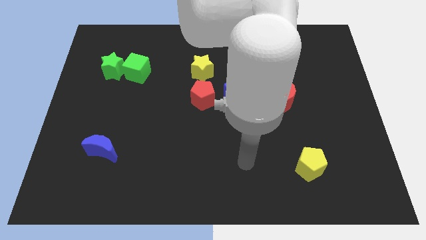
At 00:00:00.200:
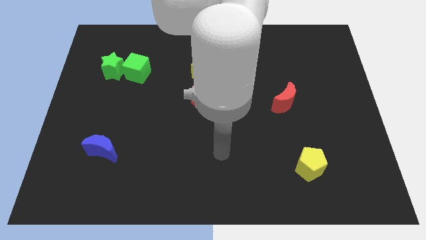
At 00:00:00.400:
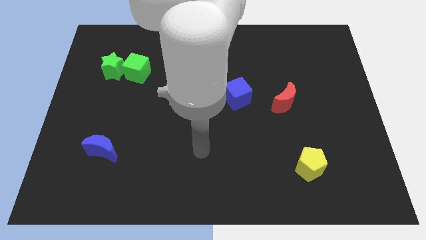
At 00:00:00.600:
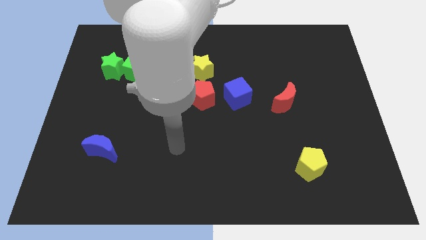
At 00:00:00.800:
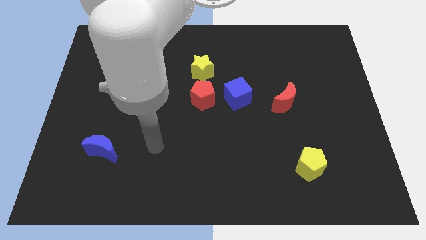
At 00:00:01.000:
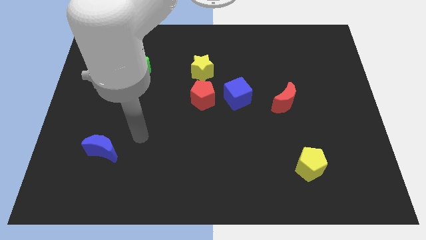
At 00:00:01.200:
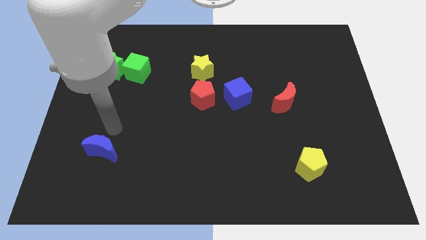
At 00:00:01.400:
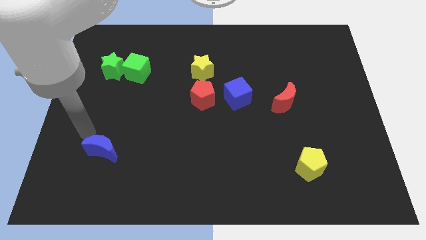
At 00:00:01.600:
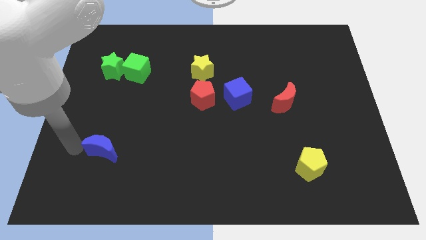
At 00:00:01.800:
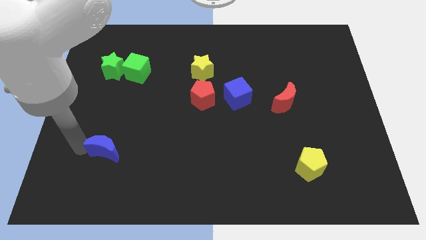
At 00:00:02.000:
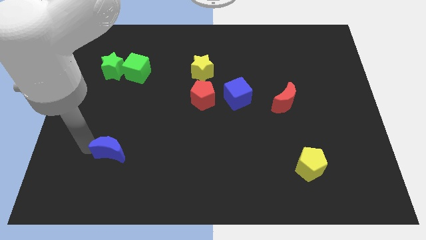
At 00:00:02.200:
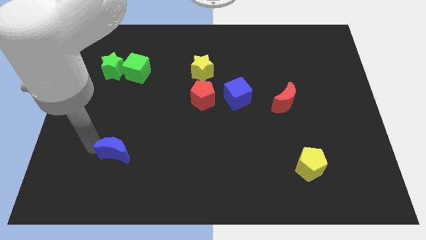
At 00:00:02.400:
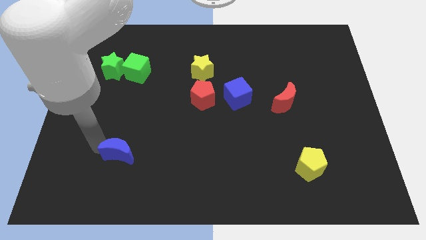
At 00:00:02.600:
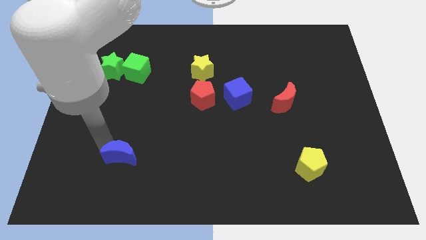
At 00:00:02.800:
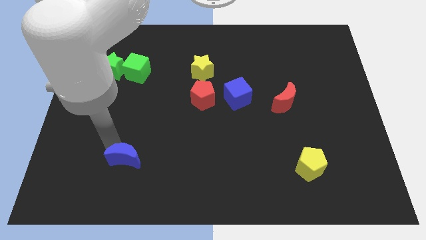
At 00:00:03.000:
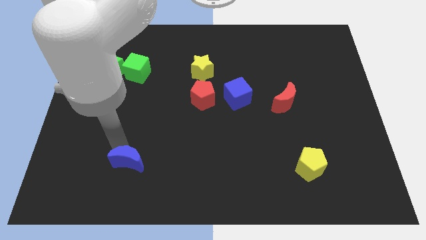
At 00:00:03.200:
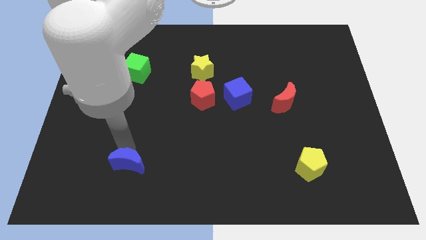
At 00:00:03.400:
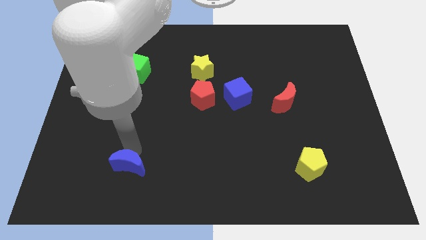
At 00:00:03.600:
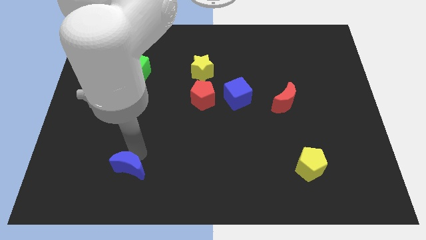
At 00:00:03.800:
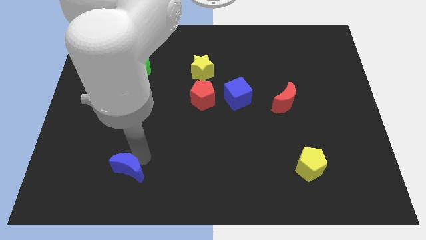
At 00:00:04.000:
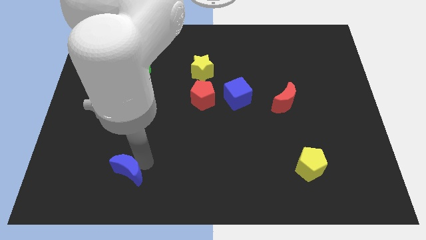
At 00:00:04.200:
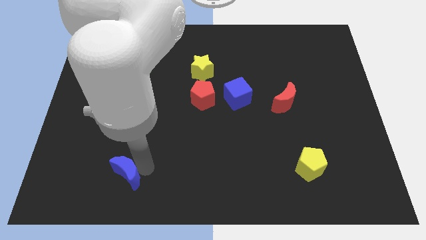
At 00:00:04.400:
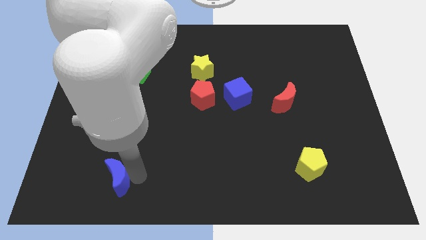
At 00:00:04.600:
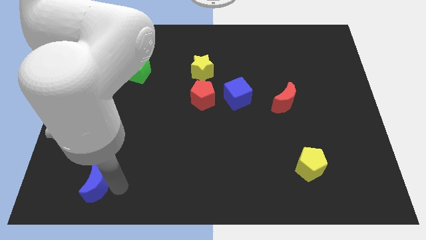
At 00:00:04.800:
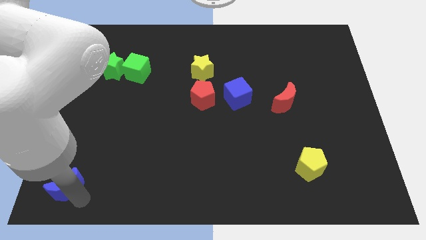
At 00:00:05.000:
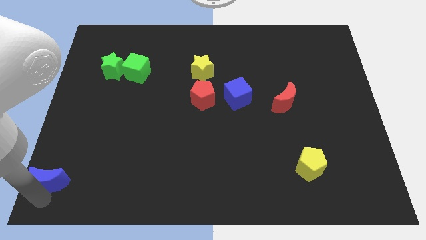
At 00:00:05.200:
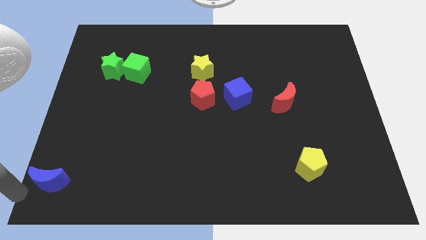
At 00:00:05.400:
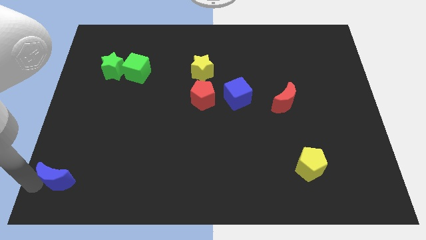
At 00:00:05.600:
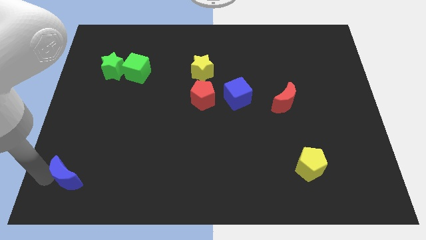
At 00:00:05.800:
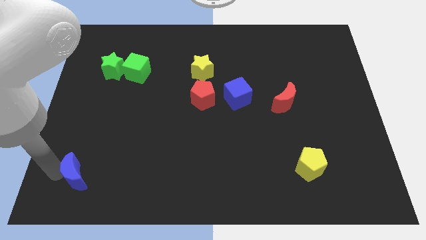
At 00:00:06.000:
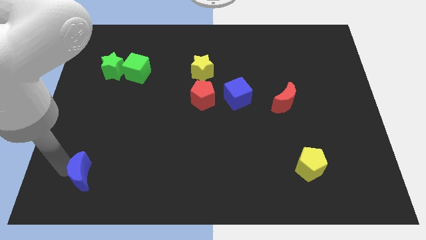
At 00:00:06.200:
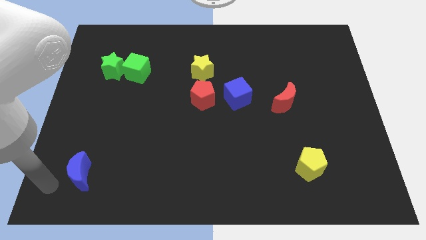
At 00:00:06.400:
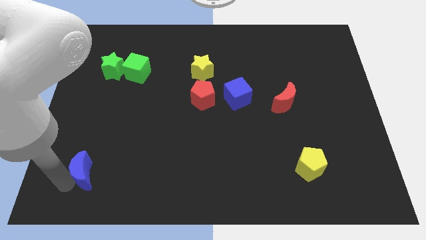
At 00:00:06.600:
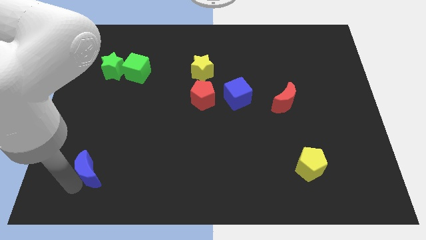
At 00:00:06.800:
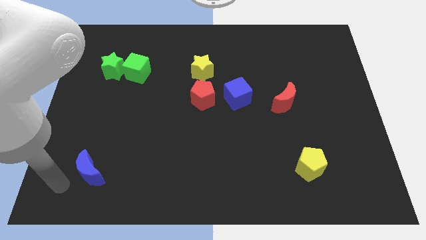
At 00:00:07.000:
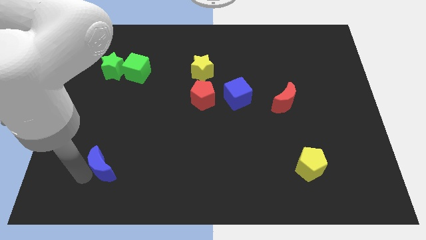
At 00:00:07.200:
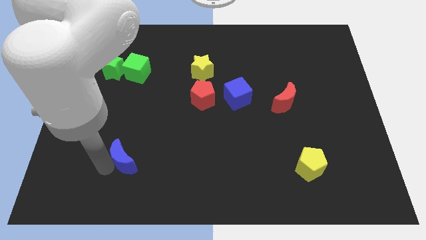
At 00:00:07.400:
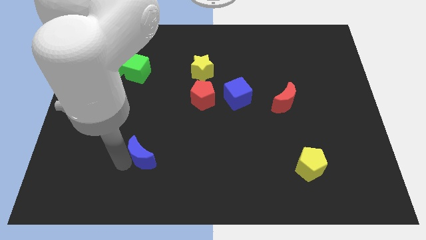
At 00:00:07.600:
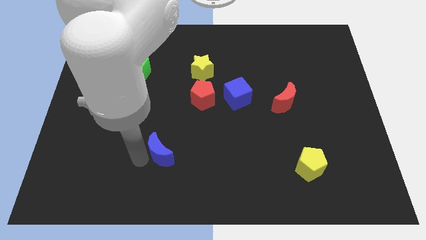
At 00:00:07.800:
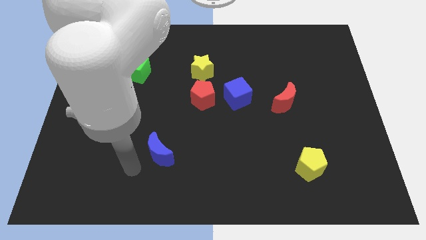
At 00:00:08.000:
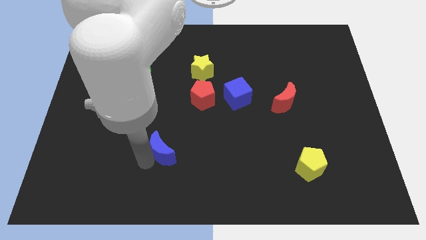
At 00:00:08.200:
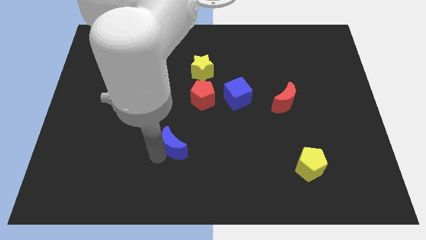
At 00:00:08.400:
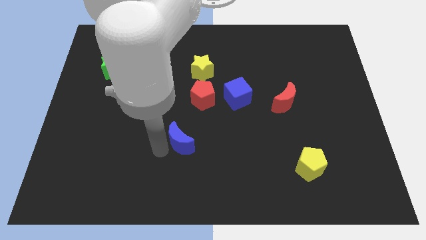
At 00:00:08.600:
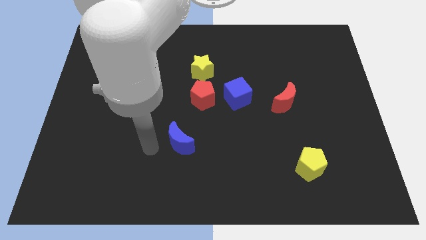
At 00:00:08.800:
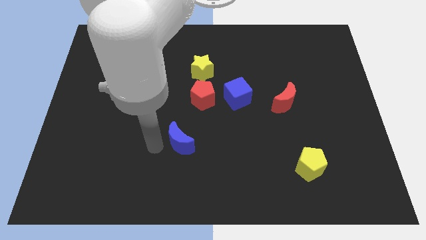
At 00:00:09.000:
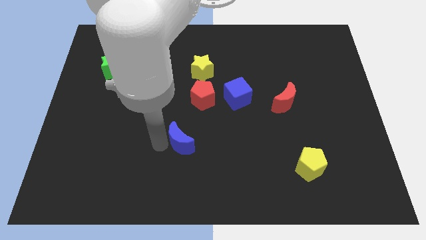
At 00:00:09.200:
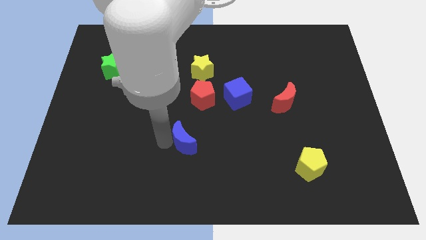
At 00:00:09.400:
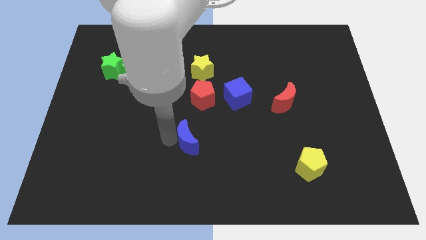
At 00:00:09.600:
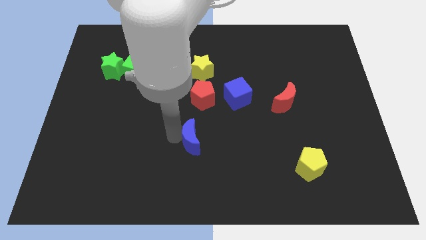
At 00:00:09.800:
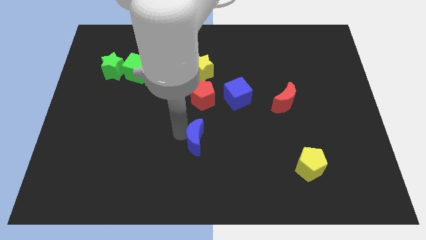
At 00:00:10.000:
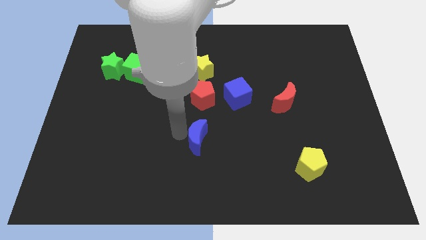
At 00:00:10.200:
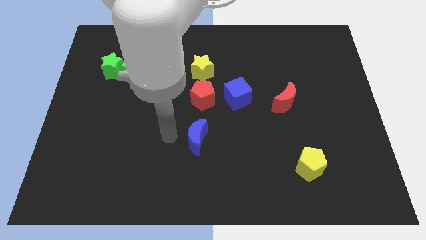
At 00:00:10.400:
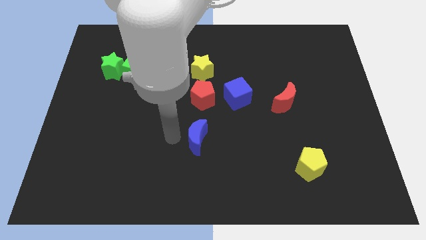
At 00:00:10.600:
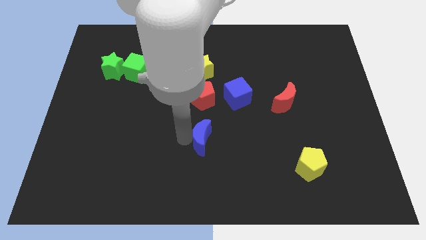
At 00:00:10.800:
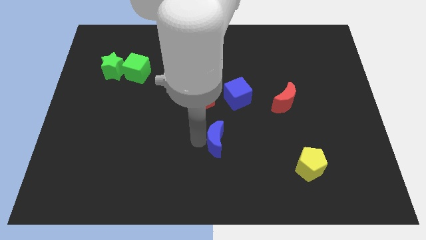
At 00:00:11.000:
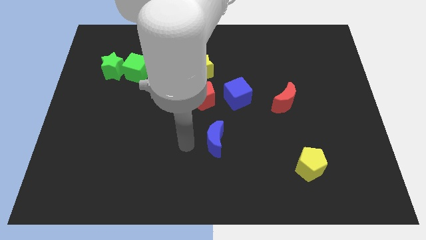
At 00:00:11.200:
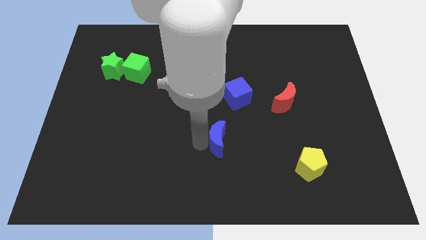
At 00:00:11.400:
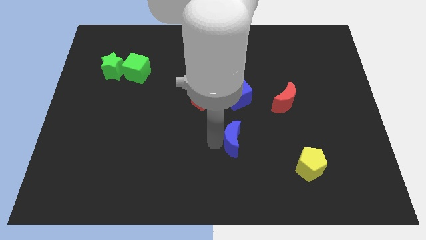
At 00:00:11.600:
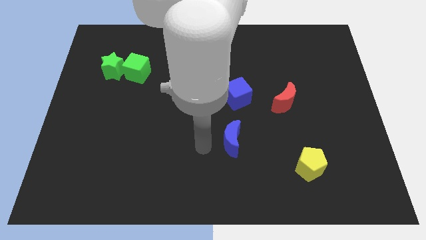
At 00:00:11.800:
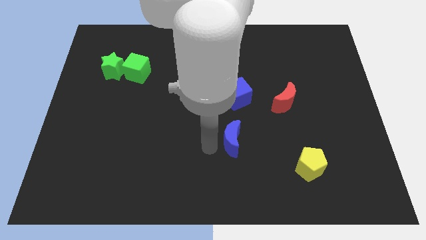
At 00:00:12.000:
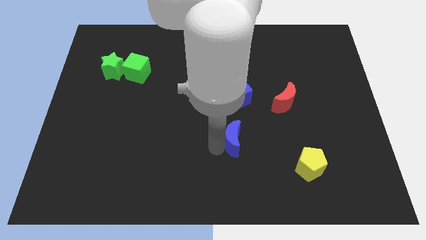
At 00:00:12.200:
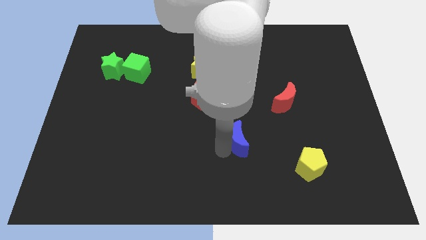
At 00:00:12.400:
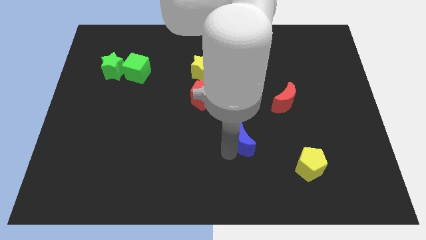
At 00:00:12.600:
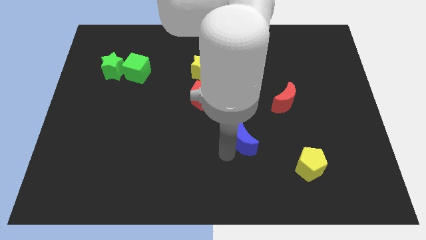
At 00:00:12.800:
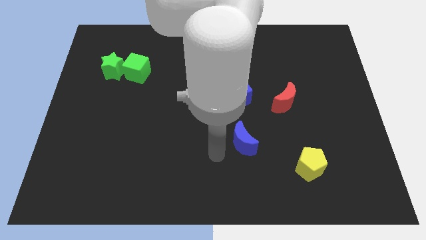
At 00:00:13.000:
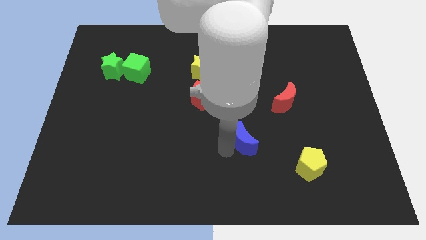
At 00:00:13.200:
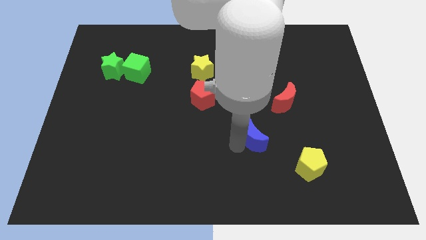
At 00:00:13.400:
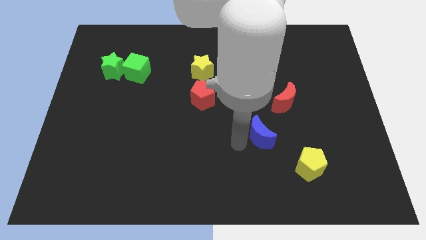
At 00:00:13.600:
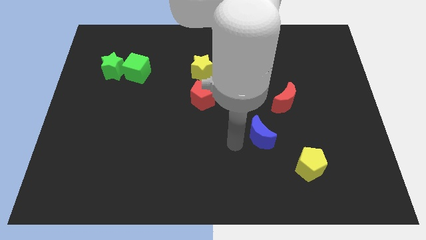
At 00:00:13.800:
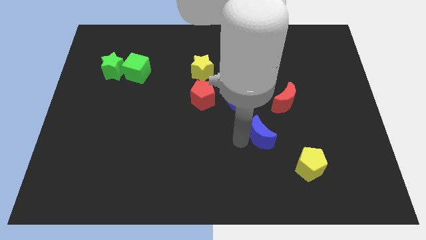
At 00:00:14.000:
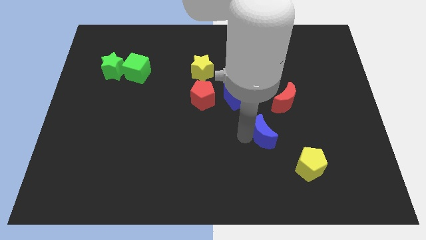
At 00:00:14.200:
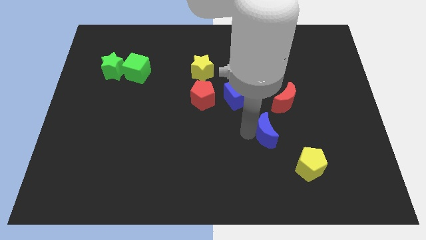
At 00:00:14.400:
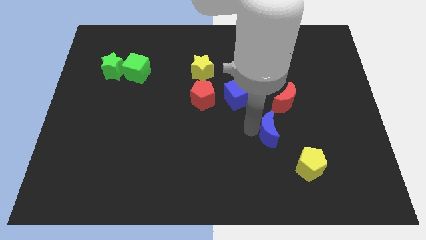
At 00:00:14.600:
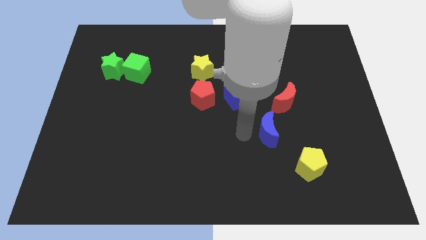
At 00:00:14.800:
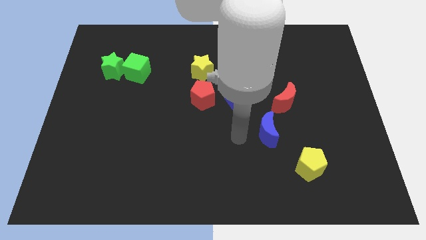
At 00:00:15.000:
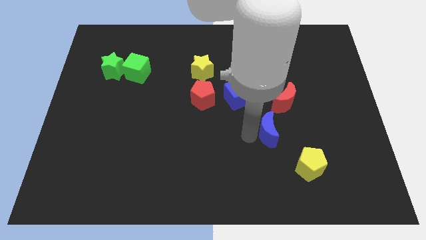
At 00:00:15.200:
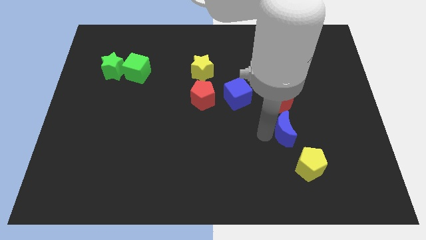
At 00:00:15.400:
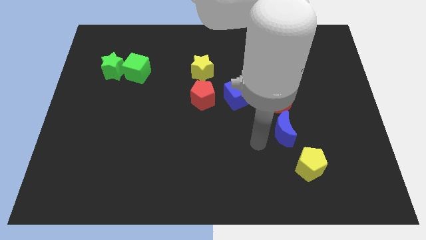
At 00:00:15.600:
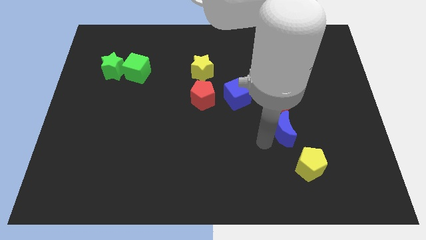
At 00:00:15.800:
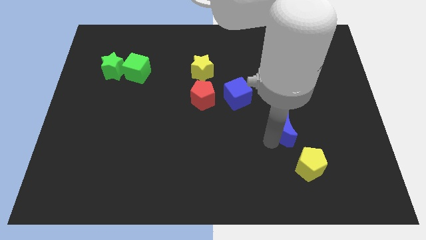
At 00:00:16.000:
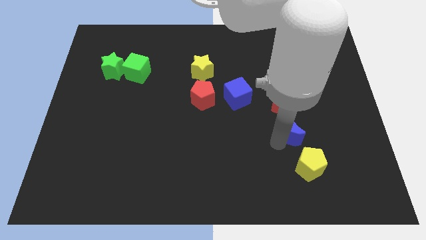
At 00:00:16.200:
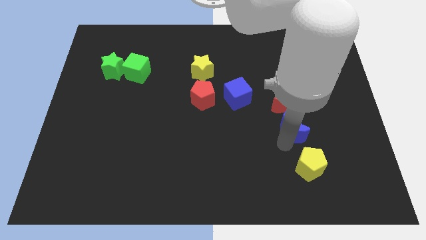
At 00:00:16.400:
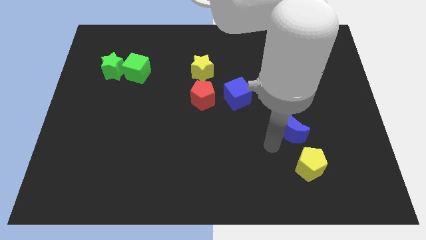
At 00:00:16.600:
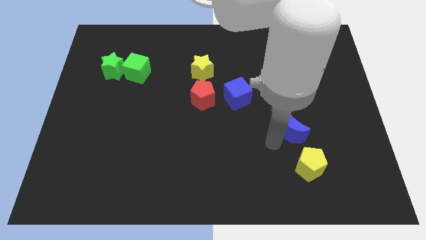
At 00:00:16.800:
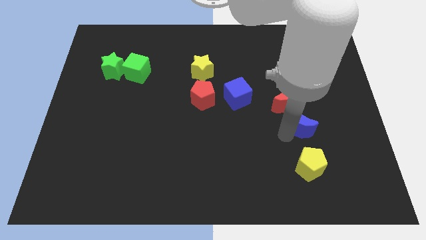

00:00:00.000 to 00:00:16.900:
move the blue moon to the bottom right of the red moon
